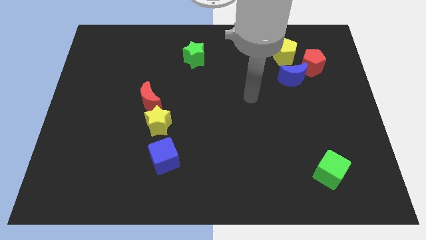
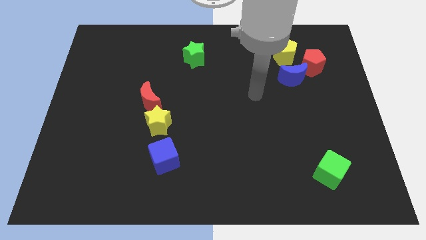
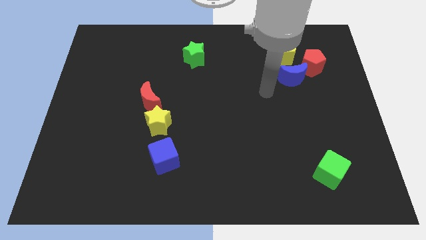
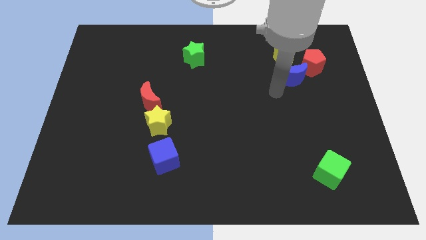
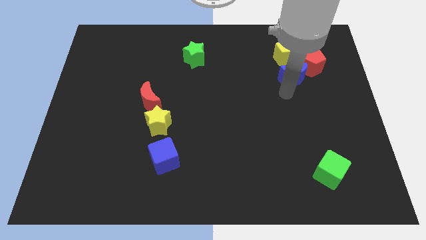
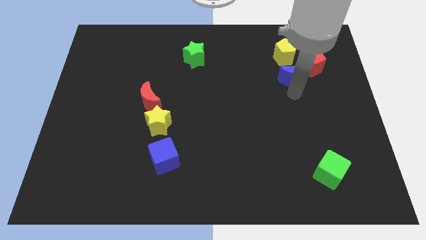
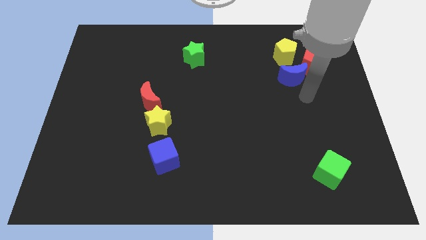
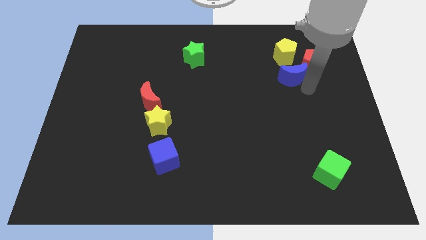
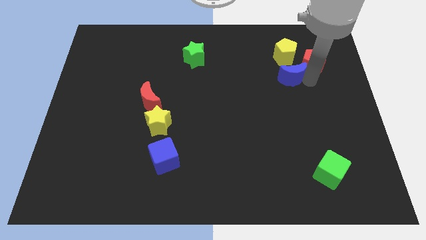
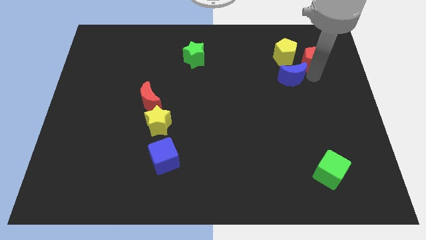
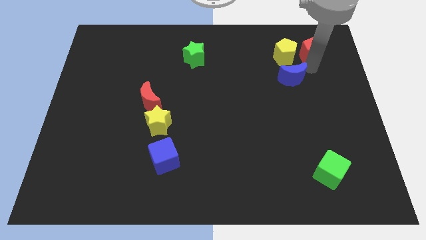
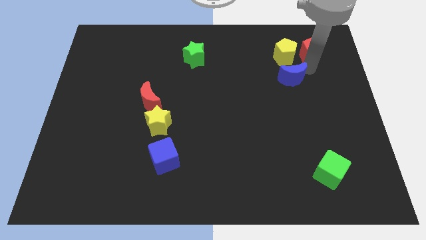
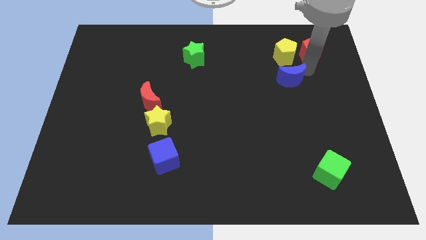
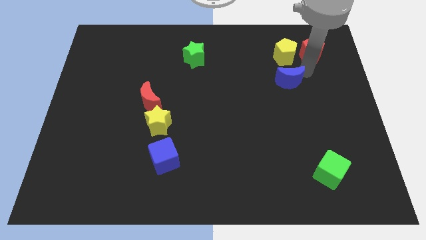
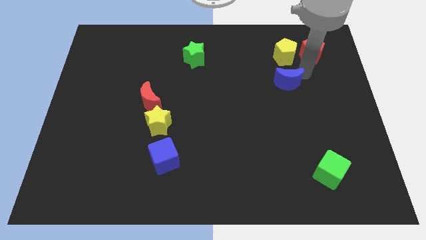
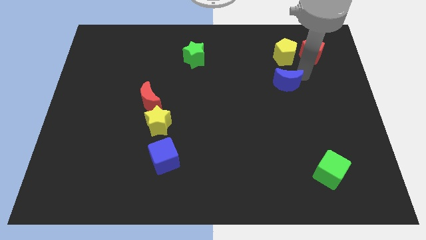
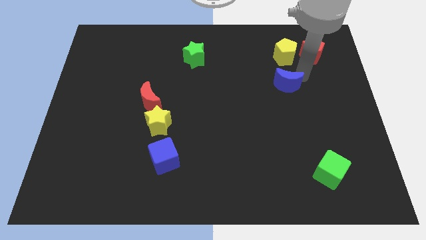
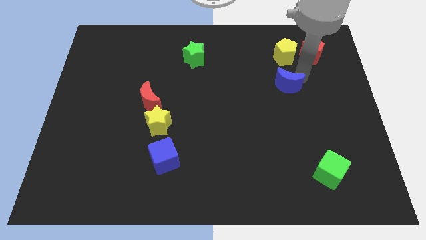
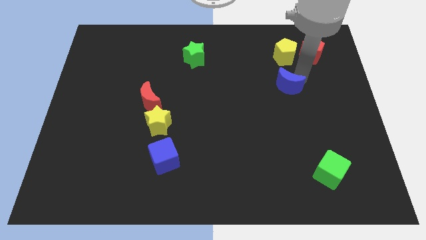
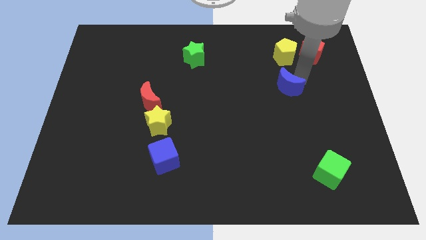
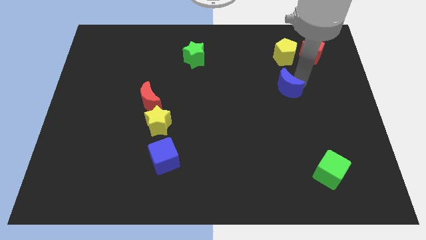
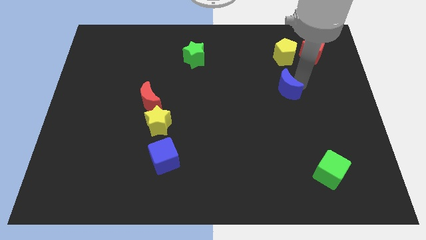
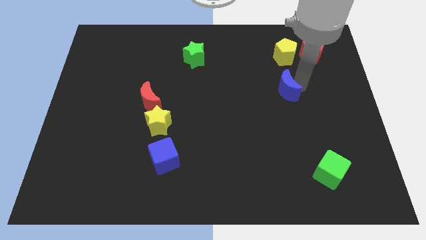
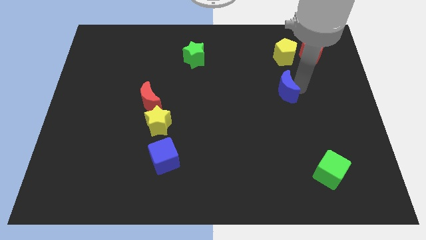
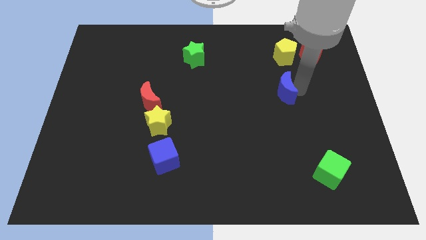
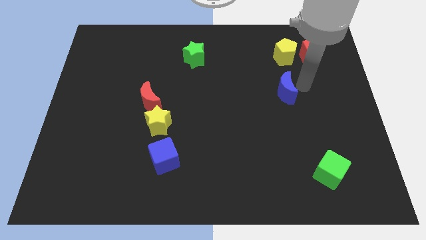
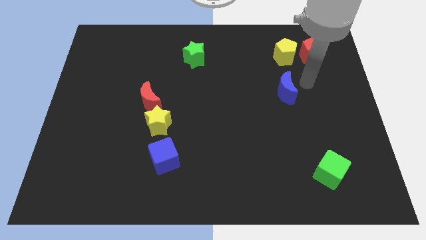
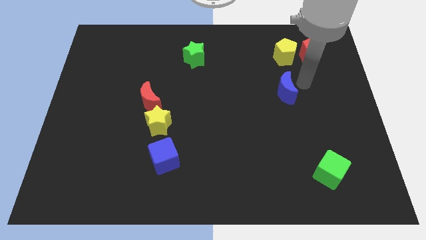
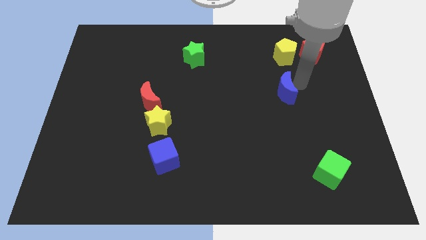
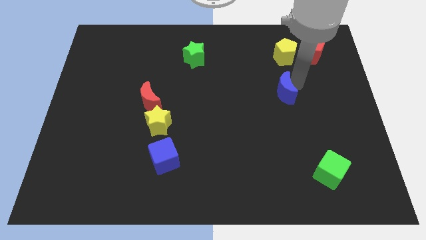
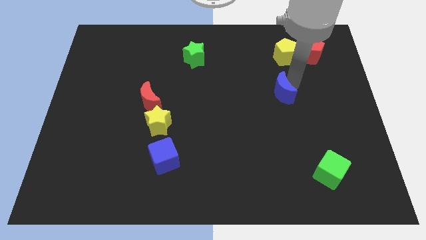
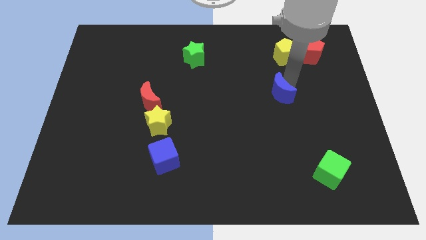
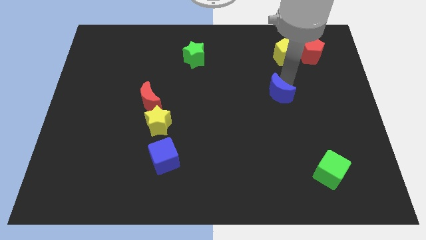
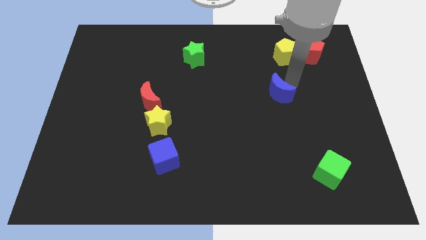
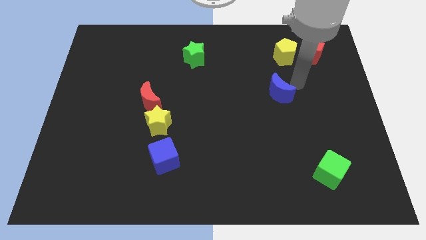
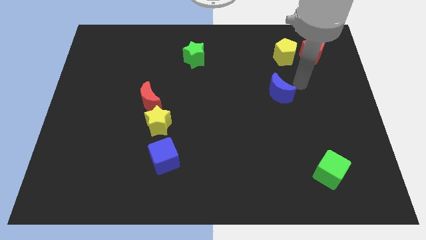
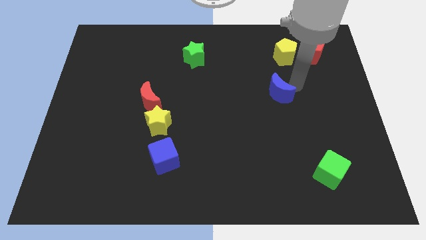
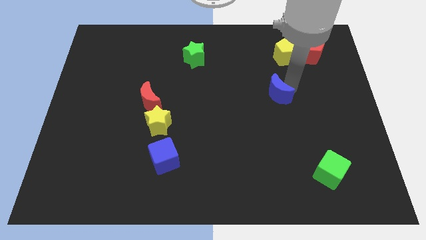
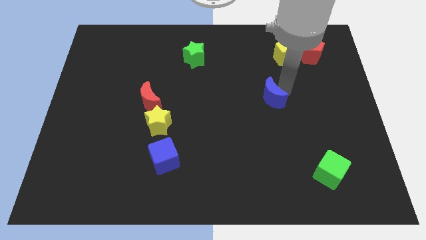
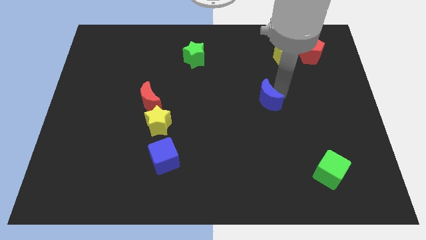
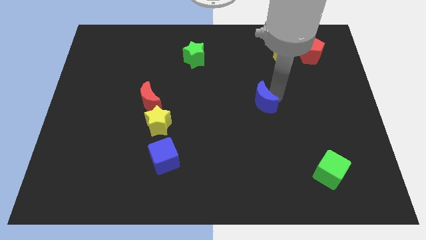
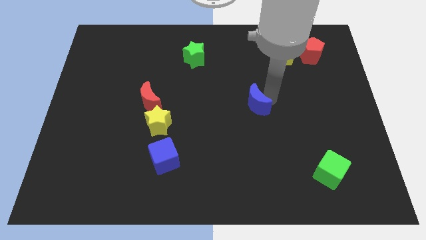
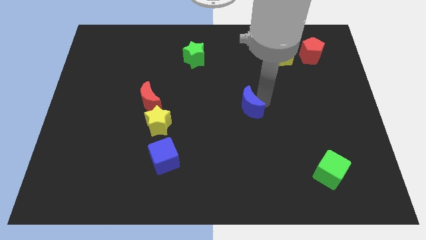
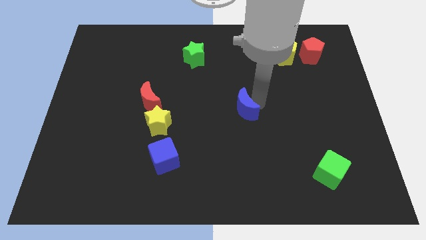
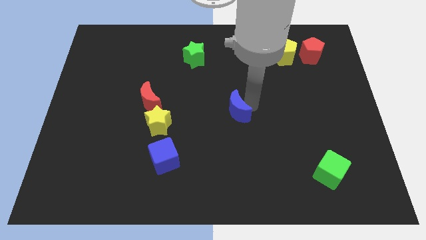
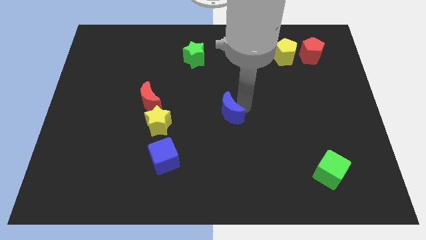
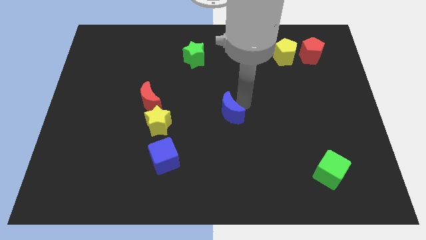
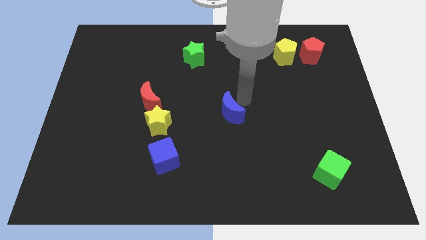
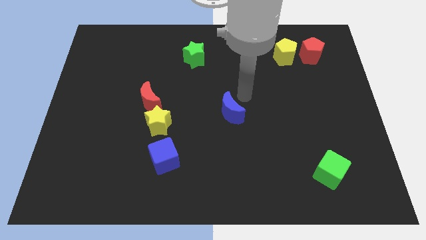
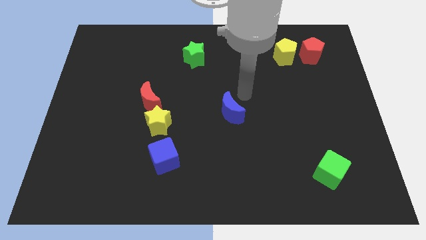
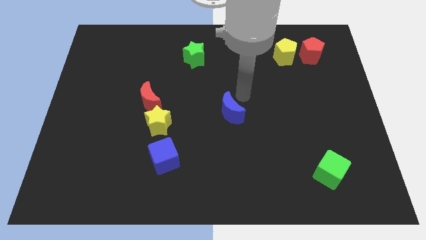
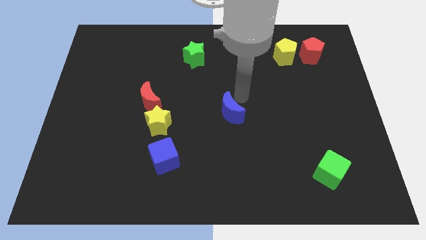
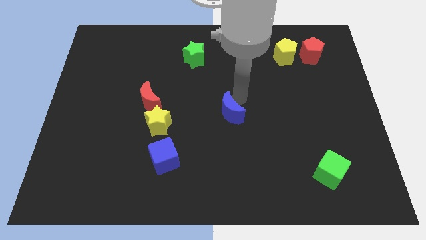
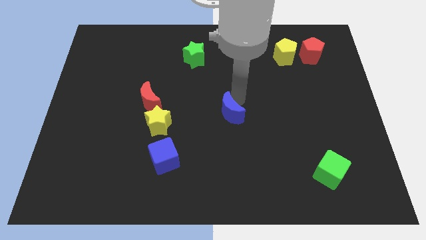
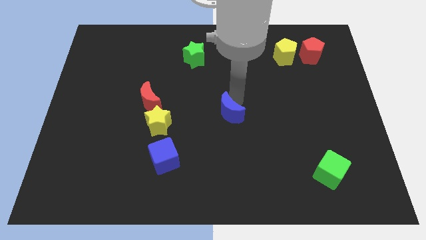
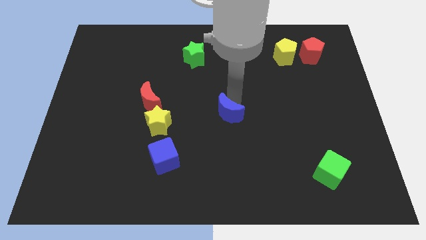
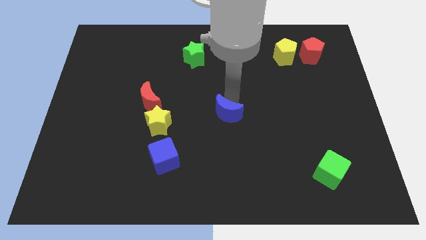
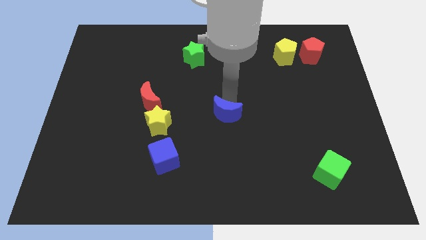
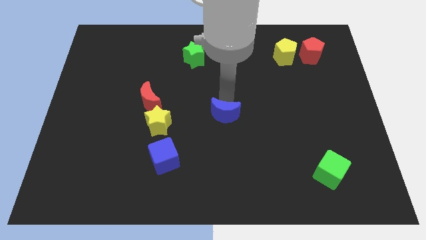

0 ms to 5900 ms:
push the blue moon down and then left

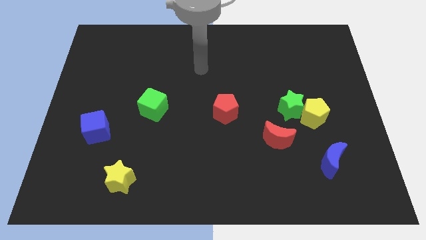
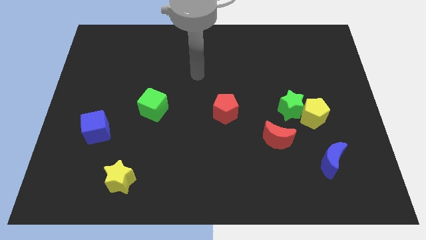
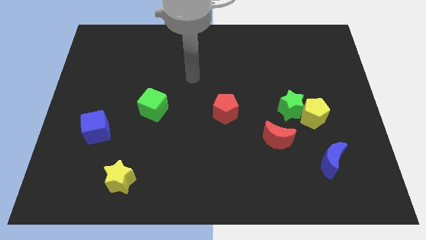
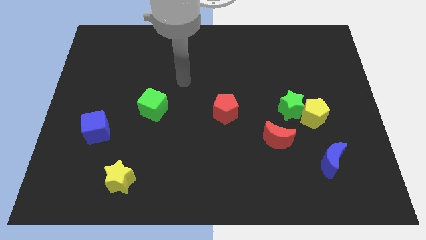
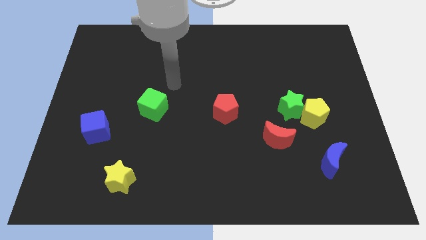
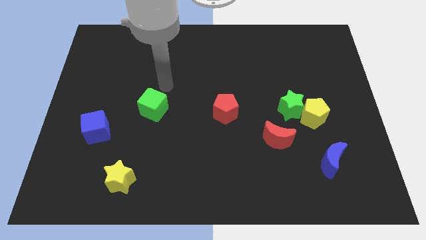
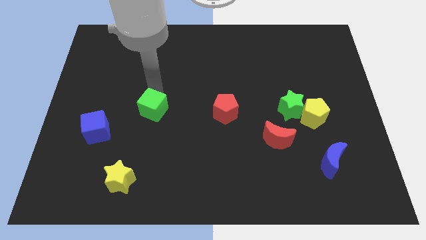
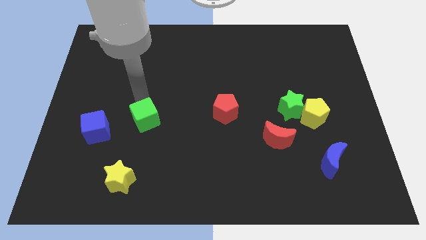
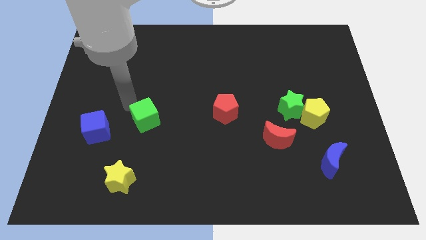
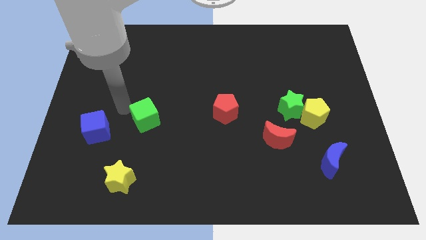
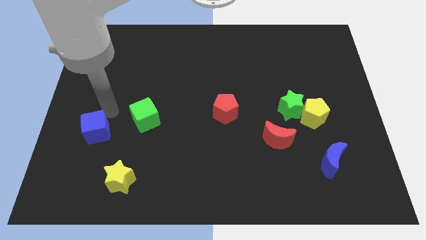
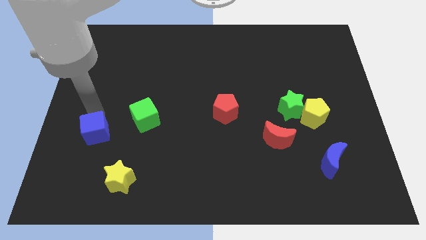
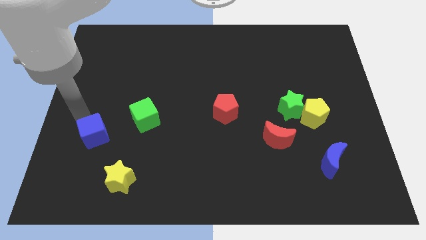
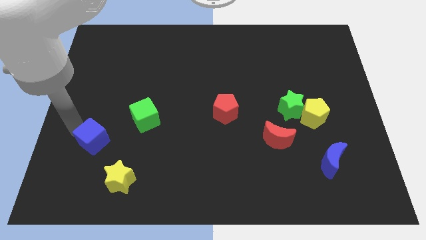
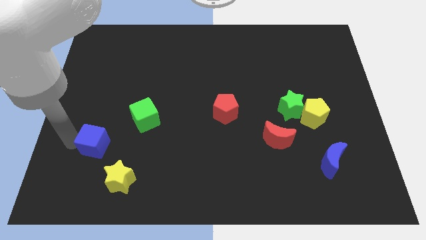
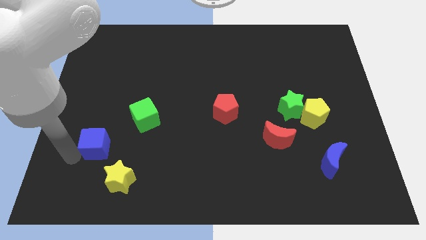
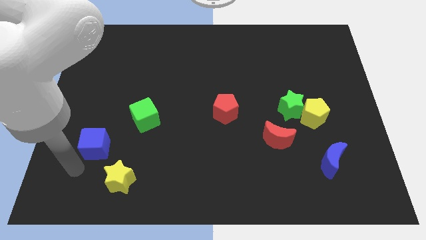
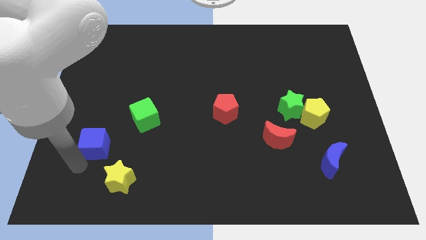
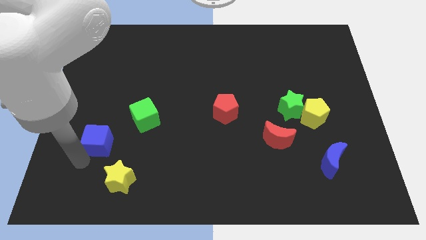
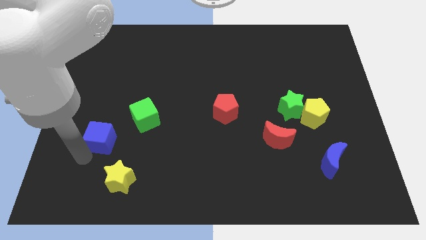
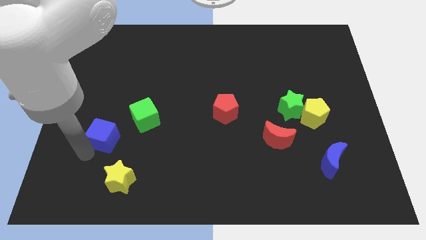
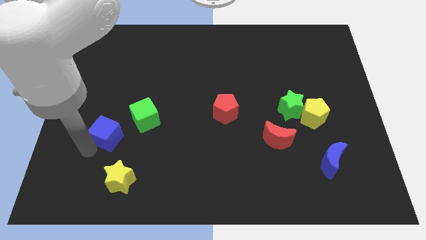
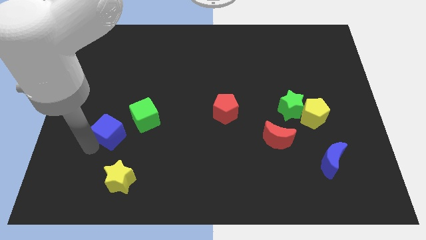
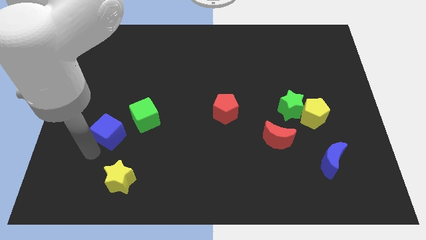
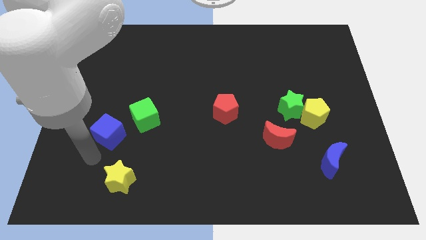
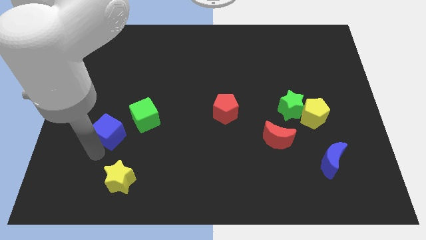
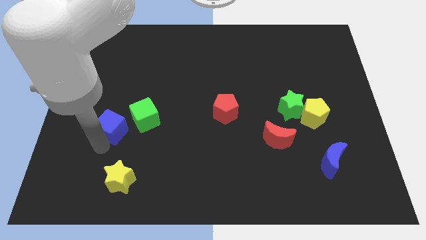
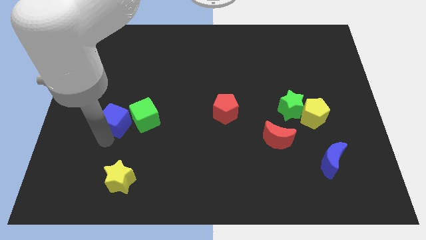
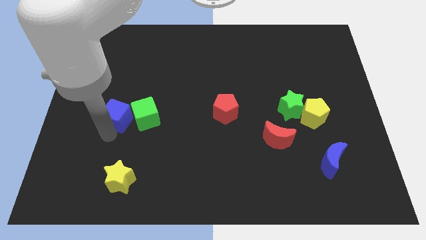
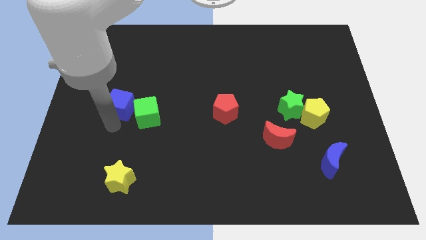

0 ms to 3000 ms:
slightly push the blue cube up and right diagonally
